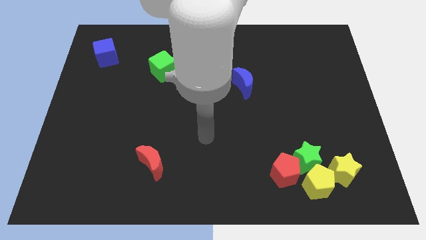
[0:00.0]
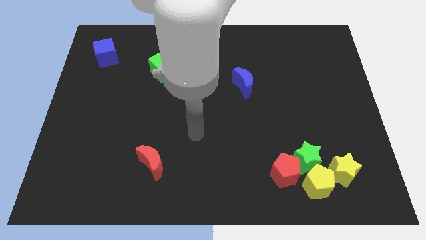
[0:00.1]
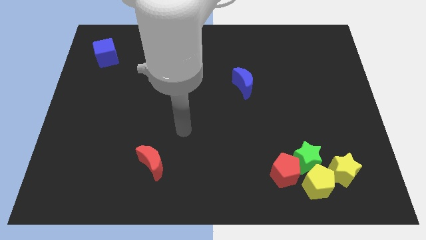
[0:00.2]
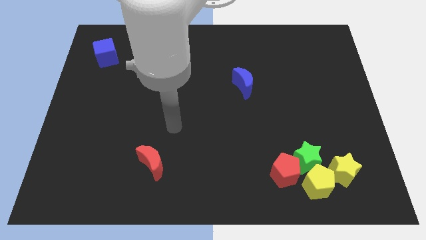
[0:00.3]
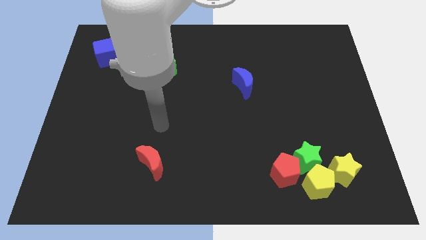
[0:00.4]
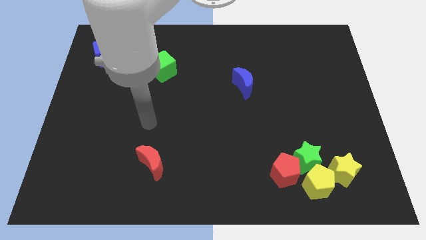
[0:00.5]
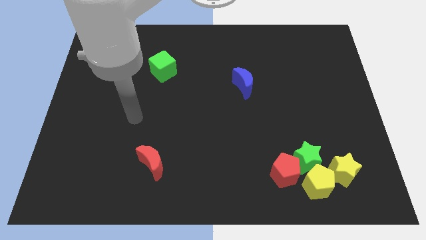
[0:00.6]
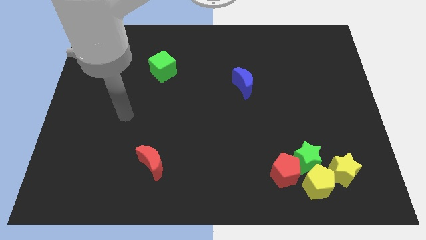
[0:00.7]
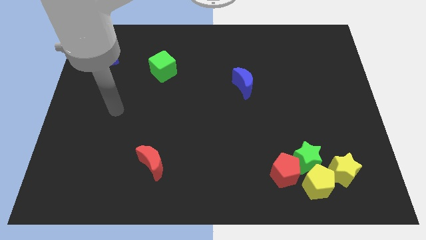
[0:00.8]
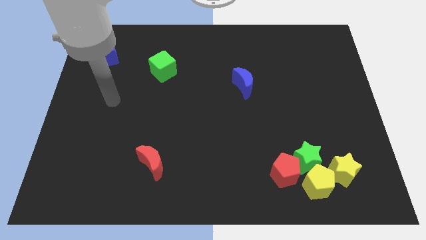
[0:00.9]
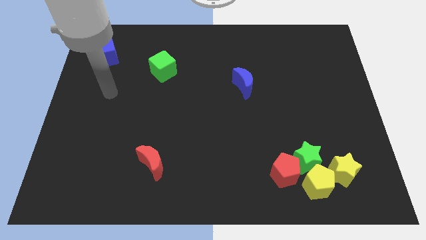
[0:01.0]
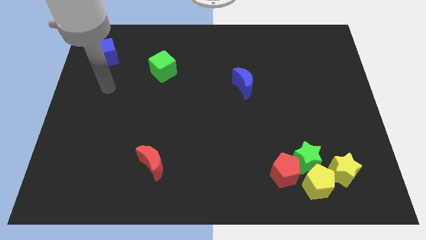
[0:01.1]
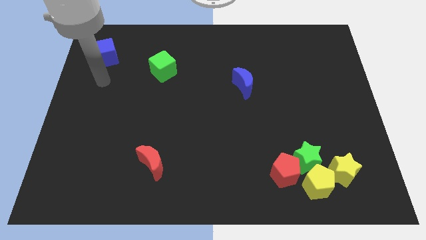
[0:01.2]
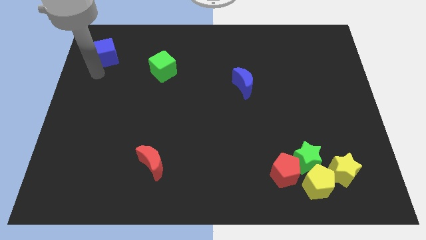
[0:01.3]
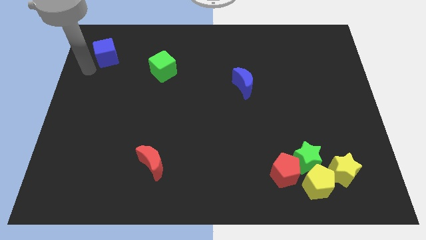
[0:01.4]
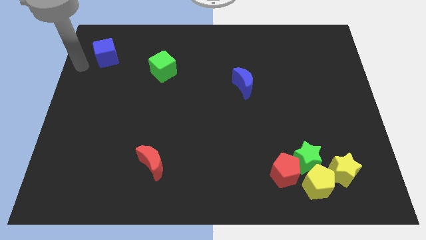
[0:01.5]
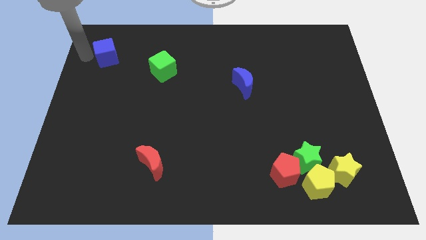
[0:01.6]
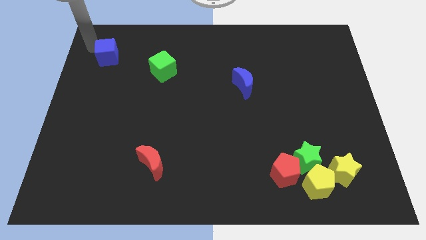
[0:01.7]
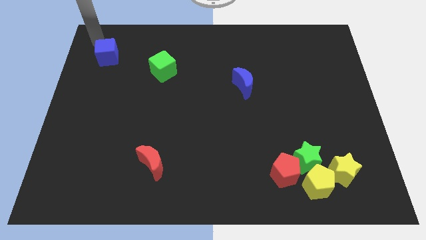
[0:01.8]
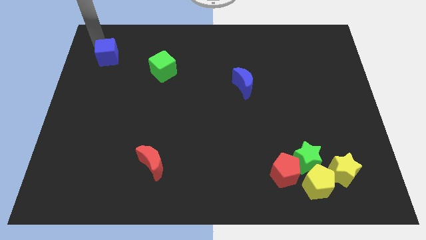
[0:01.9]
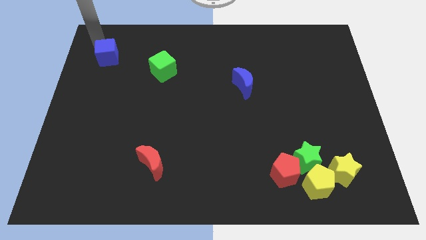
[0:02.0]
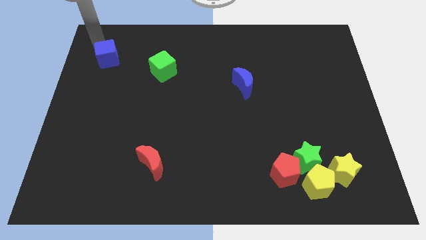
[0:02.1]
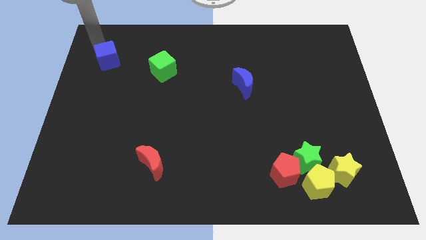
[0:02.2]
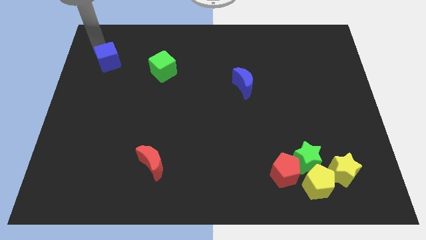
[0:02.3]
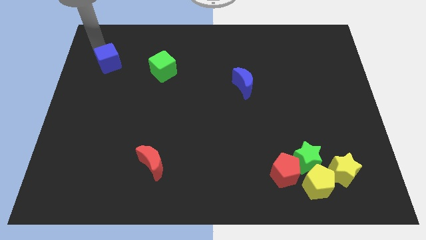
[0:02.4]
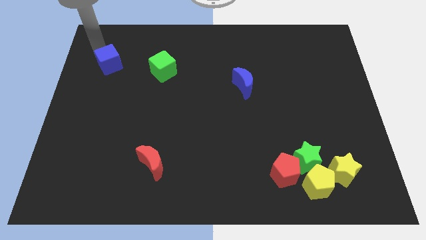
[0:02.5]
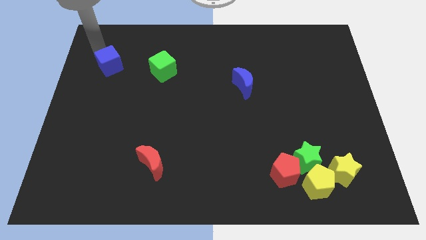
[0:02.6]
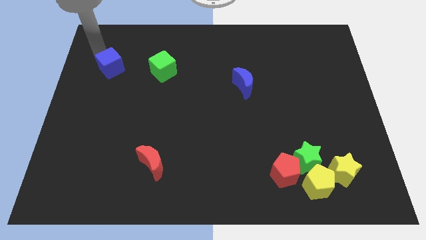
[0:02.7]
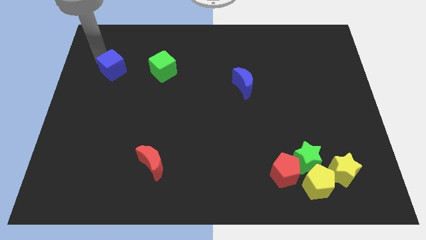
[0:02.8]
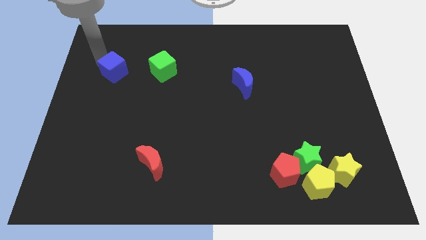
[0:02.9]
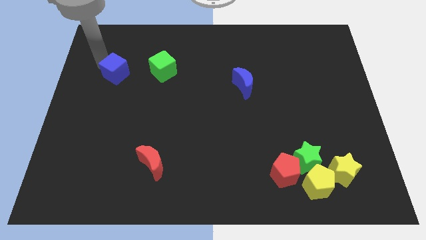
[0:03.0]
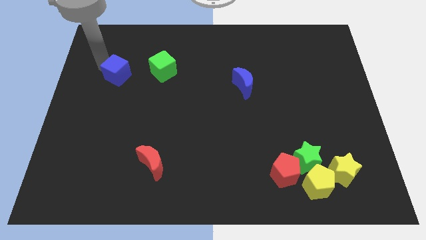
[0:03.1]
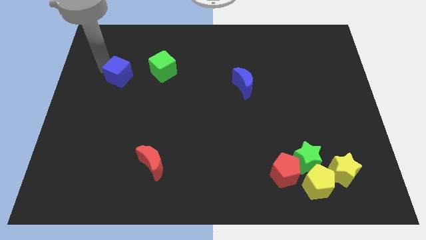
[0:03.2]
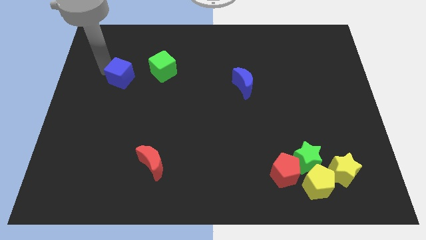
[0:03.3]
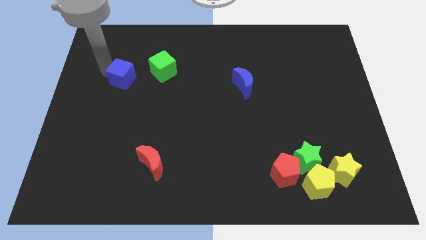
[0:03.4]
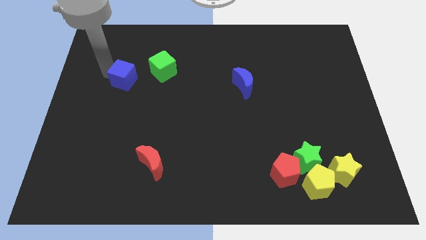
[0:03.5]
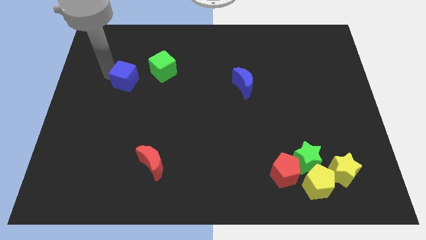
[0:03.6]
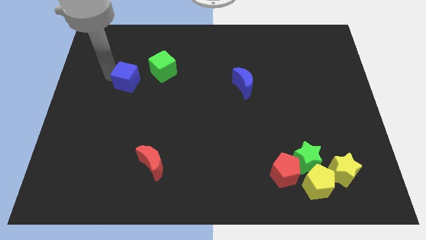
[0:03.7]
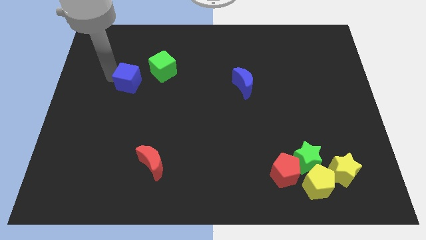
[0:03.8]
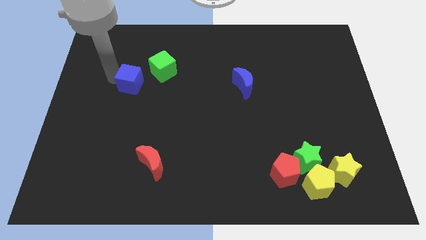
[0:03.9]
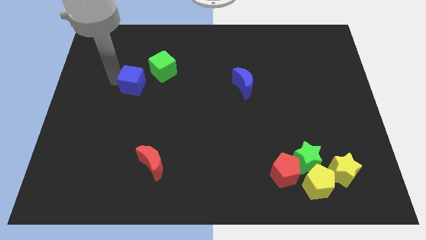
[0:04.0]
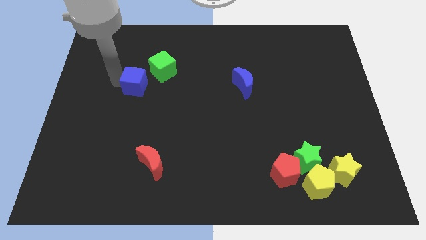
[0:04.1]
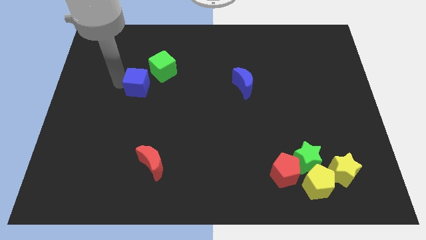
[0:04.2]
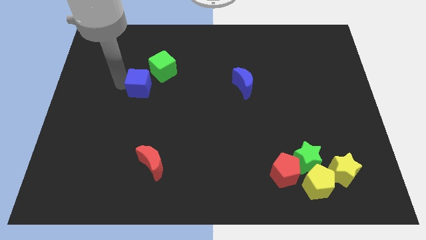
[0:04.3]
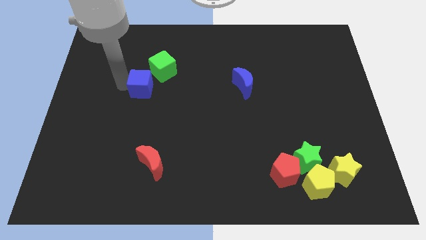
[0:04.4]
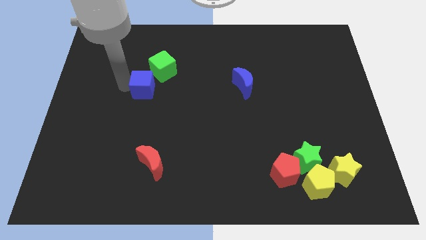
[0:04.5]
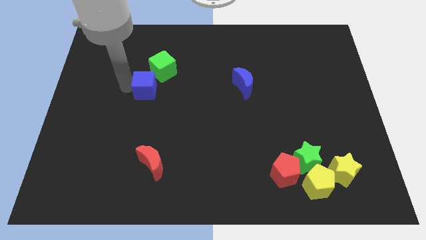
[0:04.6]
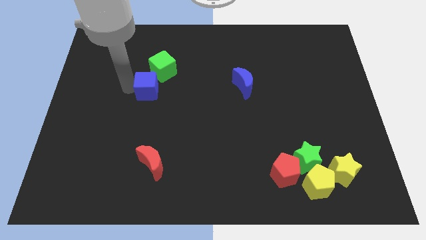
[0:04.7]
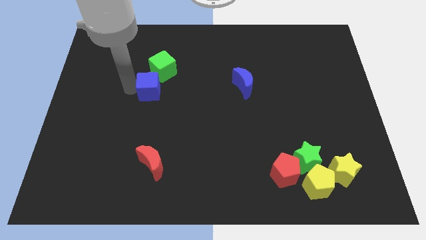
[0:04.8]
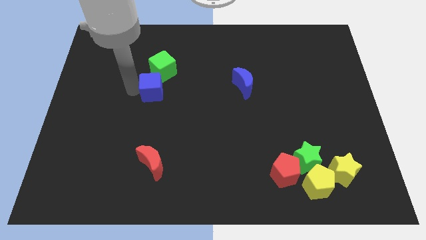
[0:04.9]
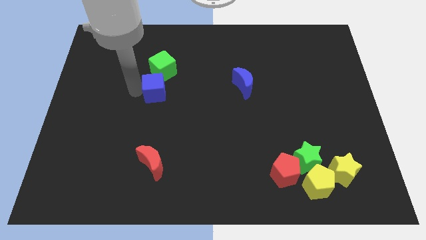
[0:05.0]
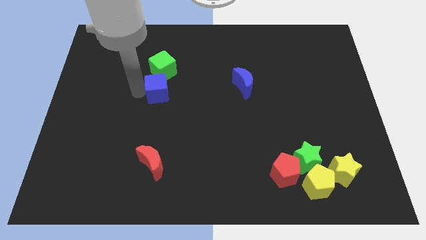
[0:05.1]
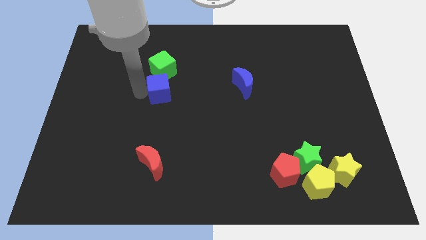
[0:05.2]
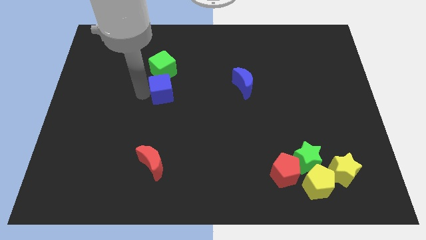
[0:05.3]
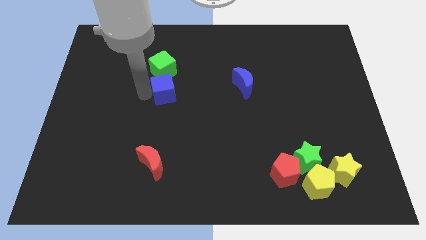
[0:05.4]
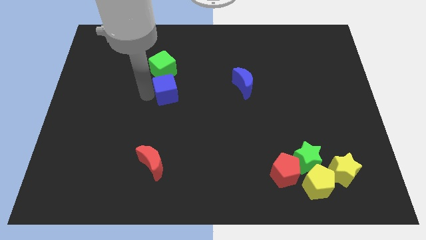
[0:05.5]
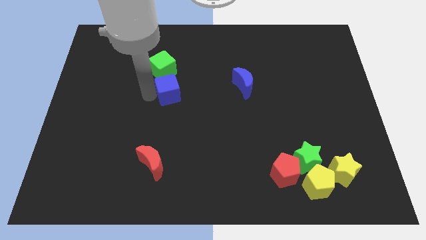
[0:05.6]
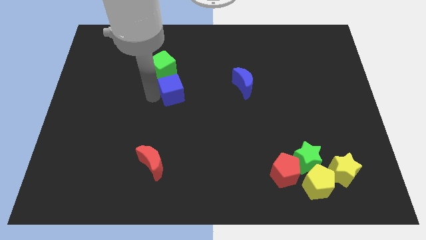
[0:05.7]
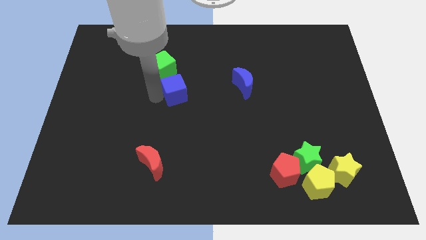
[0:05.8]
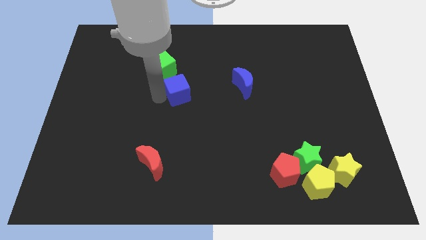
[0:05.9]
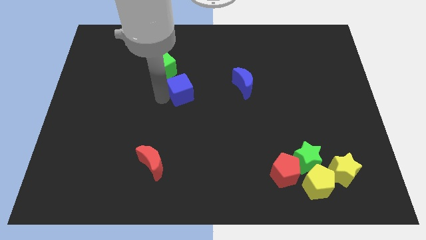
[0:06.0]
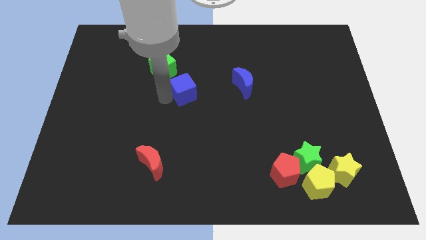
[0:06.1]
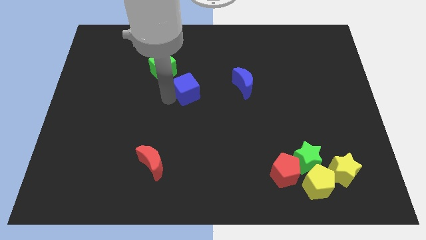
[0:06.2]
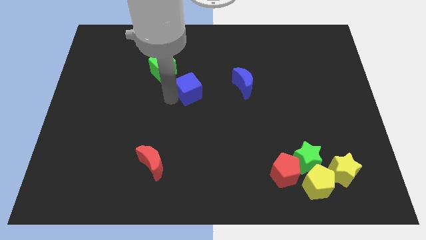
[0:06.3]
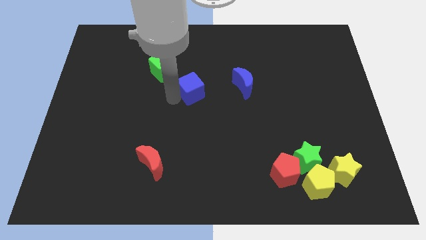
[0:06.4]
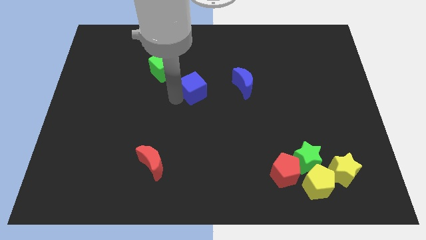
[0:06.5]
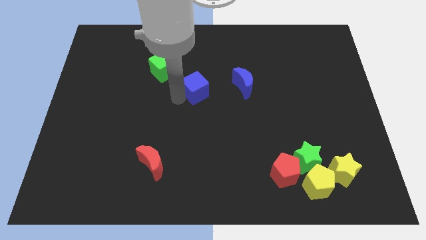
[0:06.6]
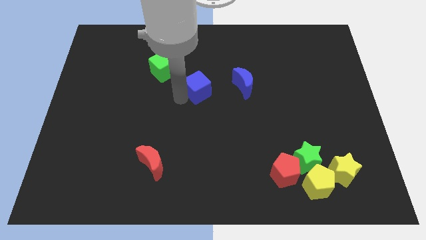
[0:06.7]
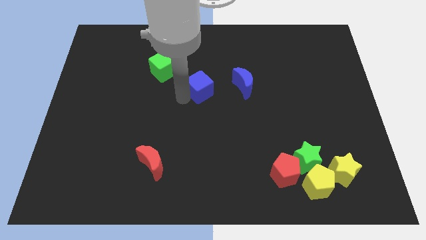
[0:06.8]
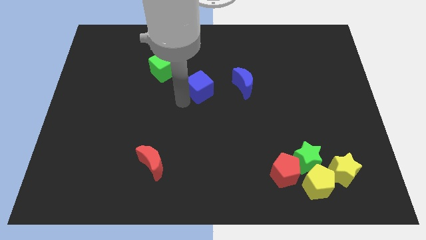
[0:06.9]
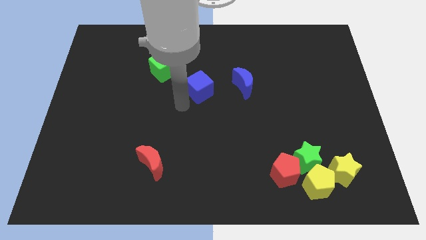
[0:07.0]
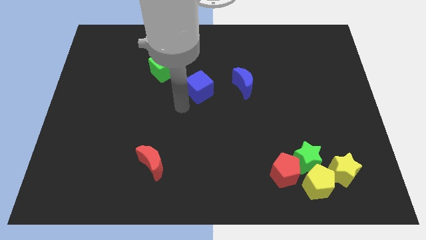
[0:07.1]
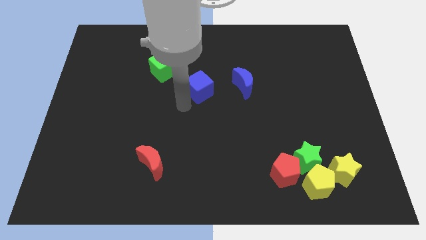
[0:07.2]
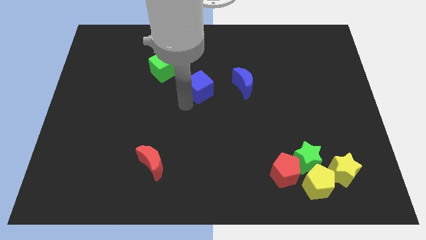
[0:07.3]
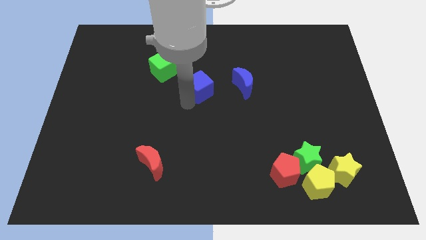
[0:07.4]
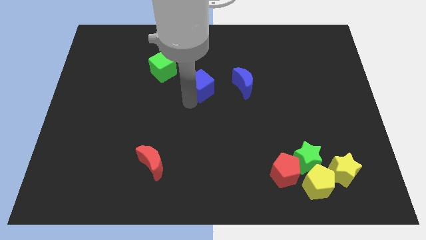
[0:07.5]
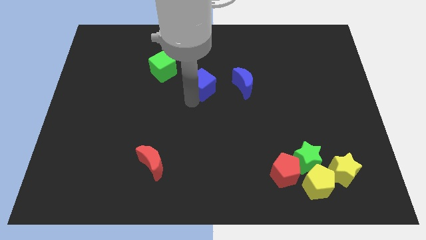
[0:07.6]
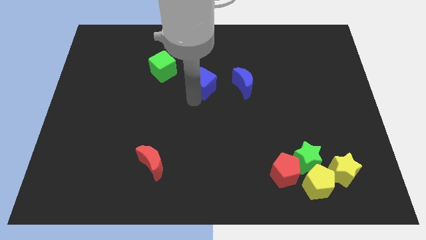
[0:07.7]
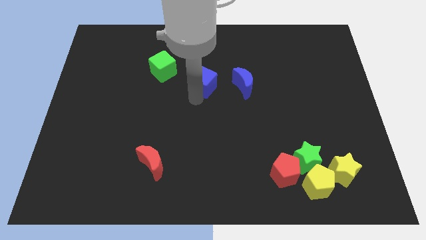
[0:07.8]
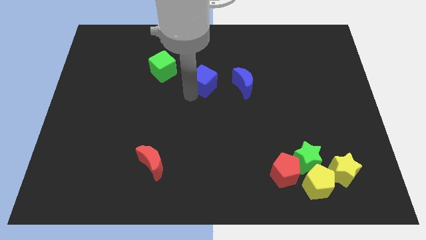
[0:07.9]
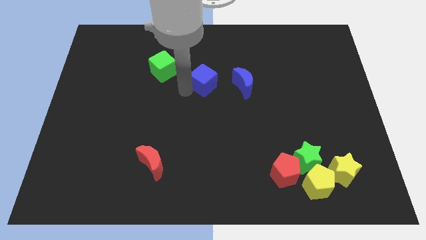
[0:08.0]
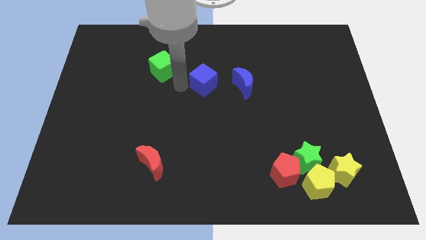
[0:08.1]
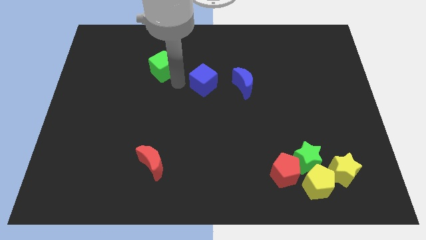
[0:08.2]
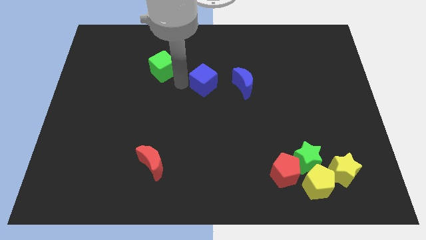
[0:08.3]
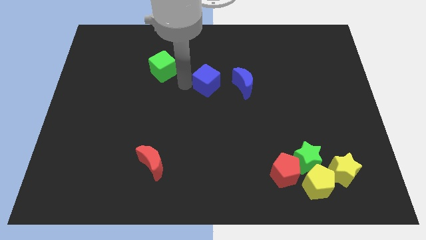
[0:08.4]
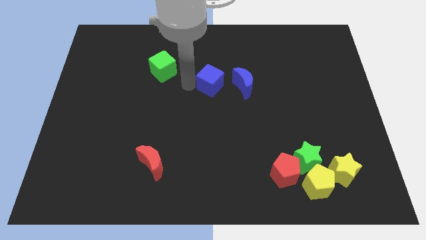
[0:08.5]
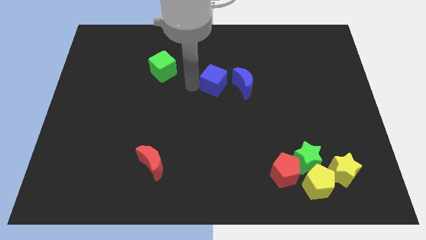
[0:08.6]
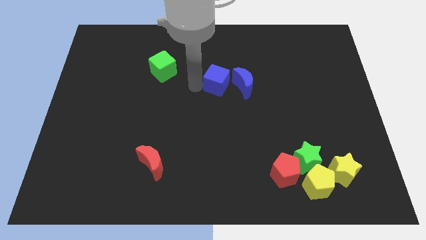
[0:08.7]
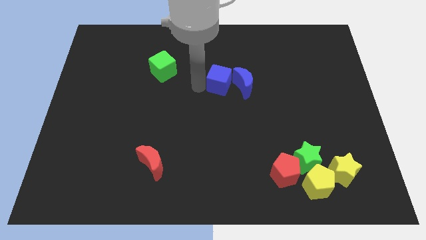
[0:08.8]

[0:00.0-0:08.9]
slide the blue cube next to the blue moon
